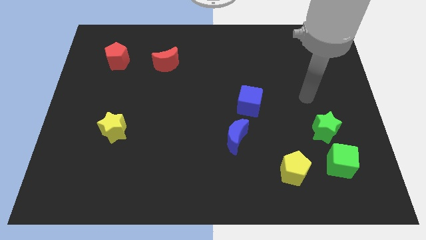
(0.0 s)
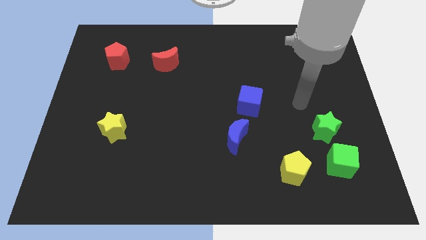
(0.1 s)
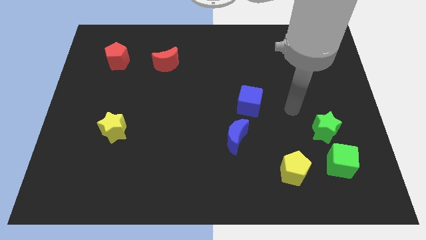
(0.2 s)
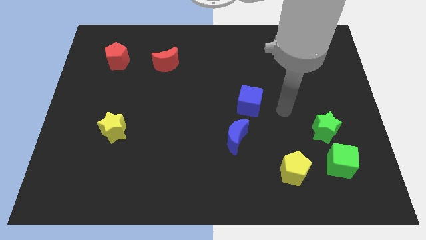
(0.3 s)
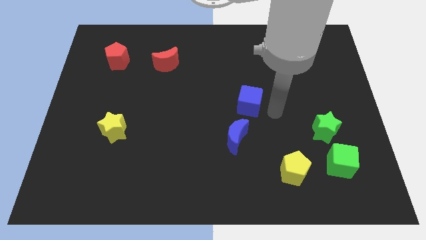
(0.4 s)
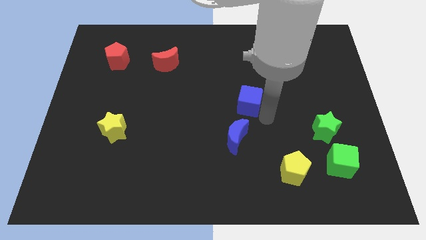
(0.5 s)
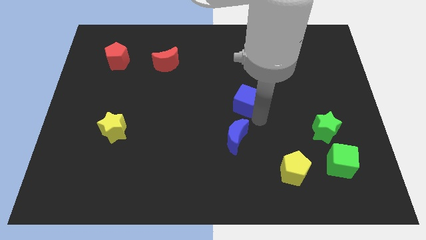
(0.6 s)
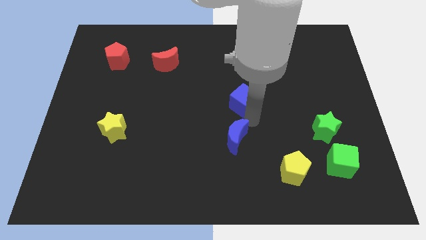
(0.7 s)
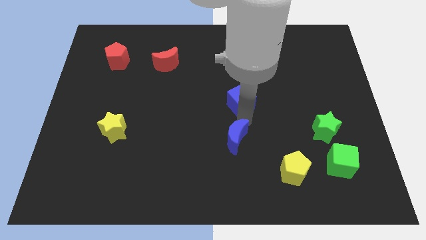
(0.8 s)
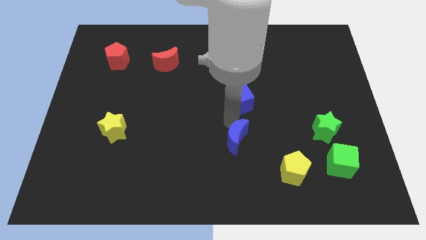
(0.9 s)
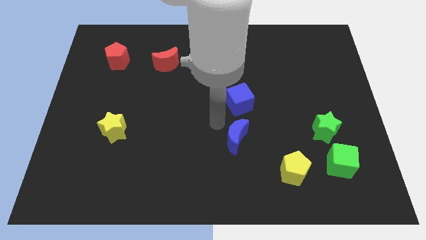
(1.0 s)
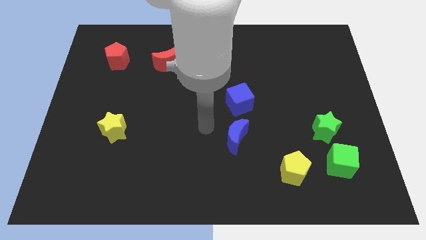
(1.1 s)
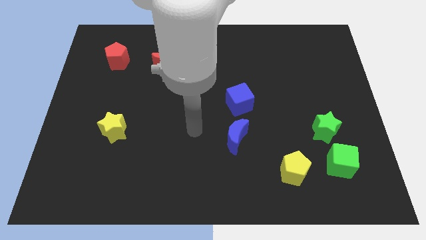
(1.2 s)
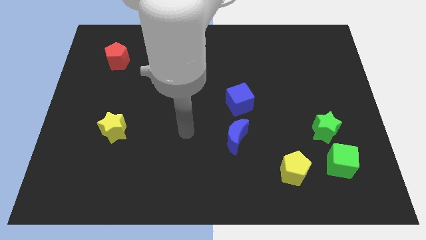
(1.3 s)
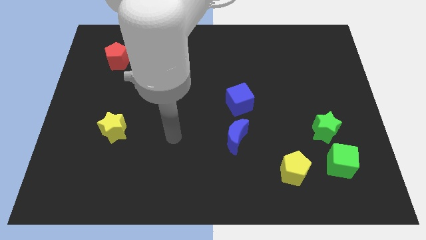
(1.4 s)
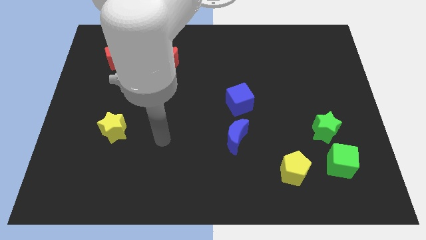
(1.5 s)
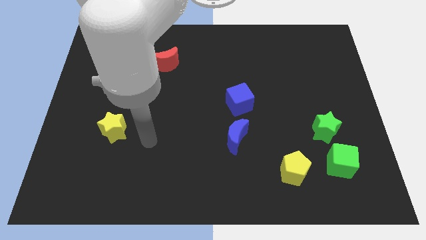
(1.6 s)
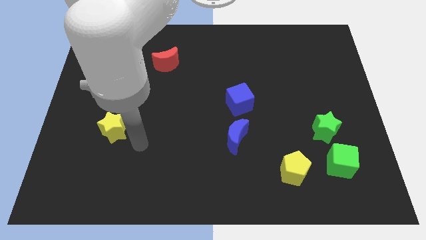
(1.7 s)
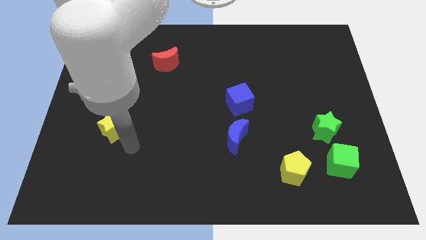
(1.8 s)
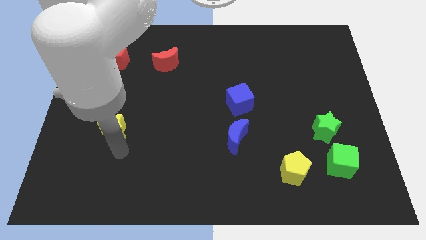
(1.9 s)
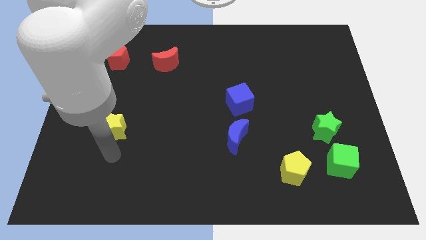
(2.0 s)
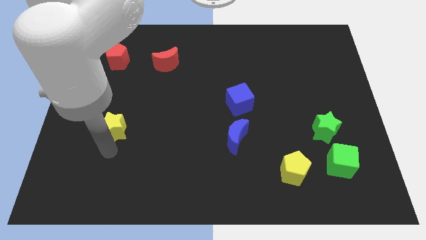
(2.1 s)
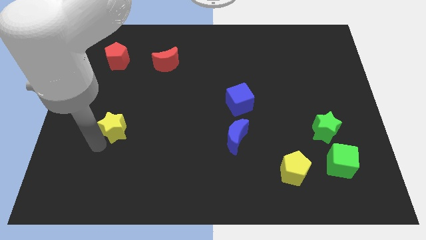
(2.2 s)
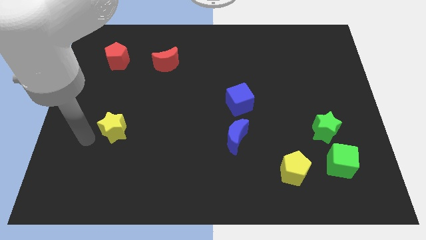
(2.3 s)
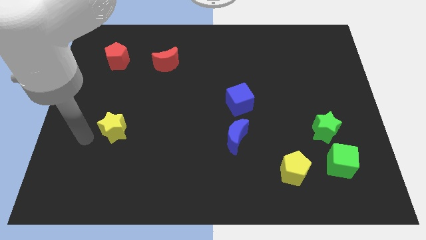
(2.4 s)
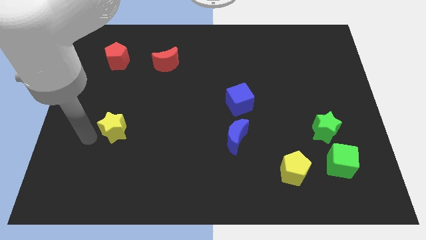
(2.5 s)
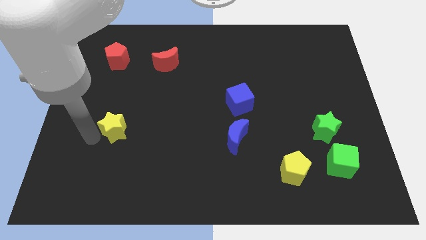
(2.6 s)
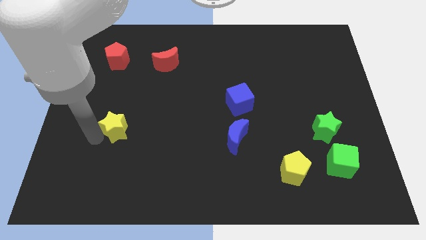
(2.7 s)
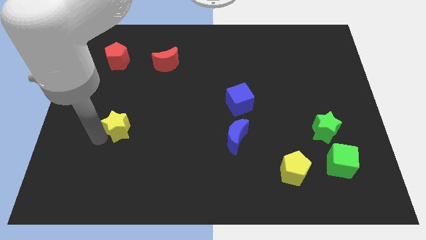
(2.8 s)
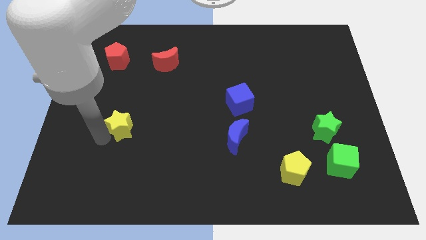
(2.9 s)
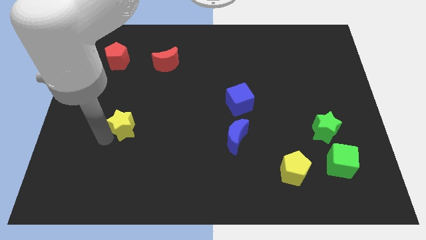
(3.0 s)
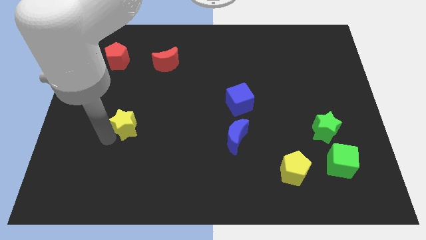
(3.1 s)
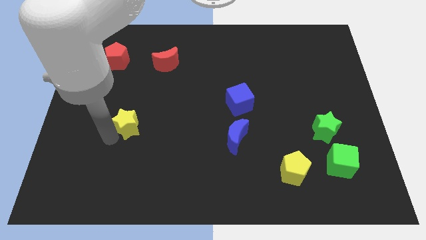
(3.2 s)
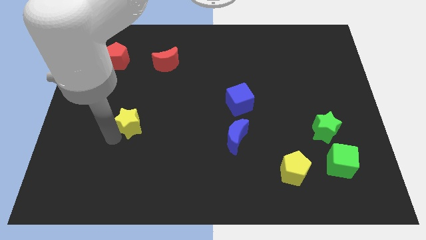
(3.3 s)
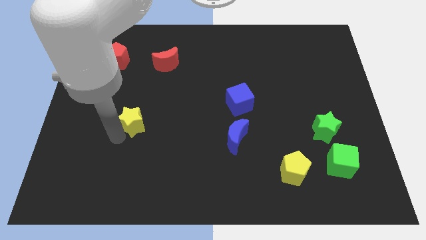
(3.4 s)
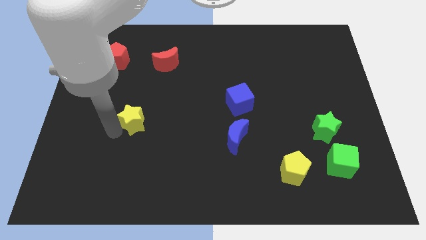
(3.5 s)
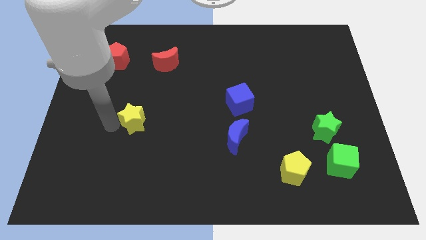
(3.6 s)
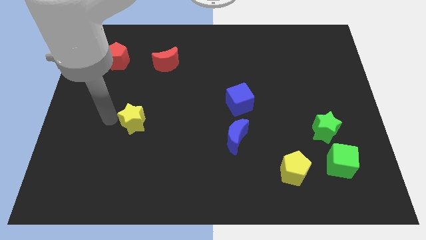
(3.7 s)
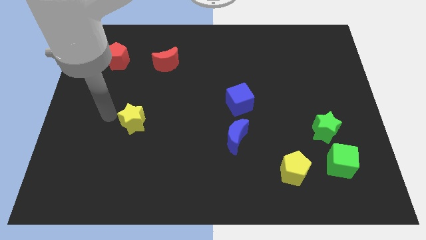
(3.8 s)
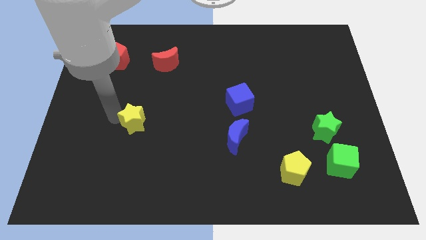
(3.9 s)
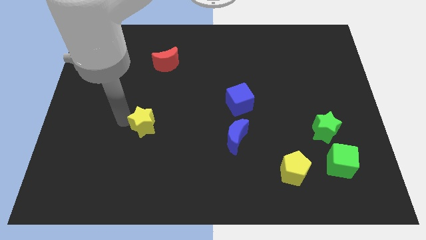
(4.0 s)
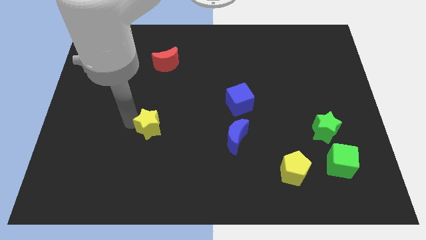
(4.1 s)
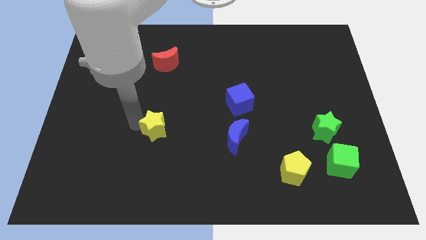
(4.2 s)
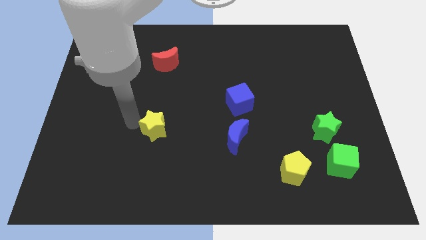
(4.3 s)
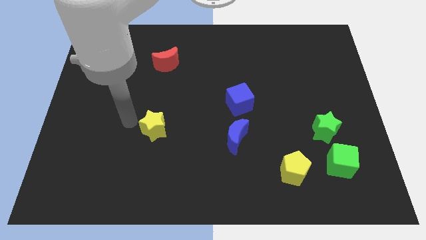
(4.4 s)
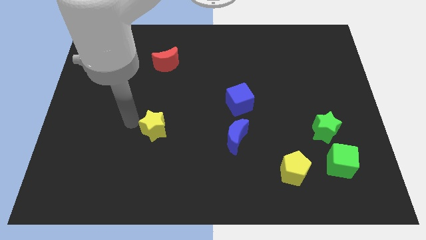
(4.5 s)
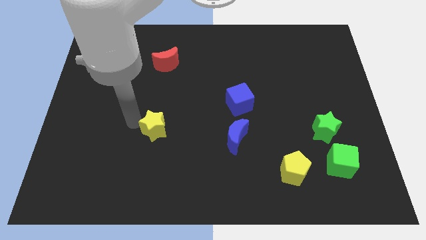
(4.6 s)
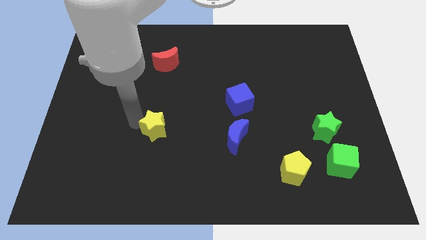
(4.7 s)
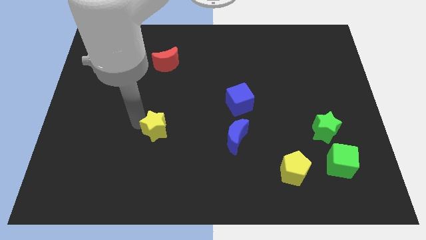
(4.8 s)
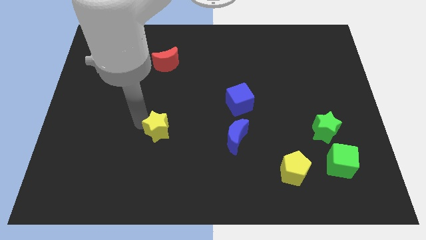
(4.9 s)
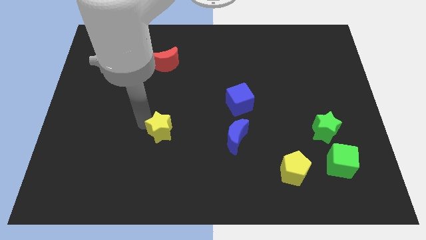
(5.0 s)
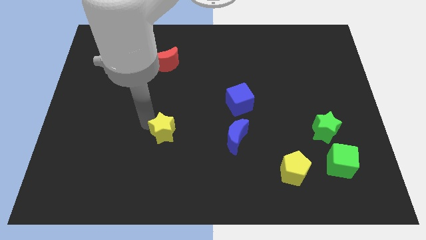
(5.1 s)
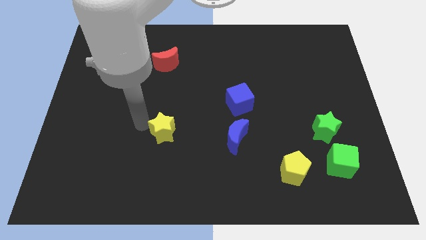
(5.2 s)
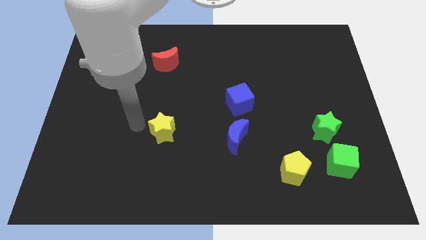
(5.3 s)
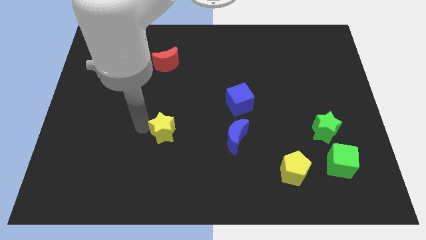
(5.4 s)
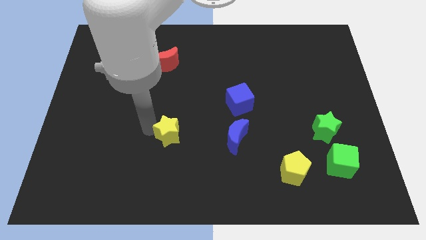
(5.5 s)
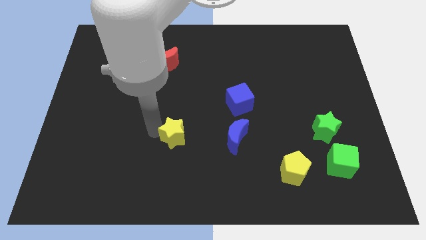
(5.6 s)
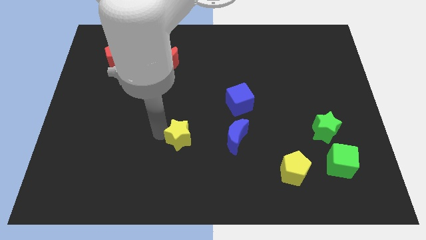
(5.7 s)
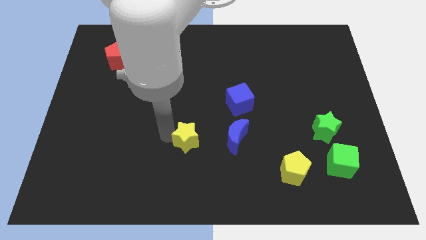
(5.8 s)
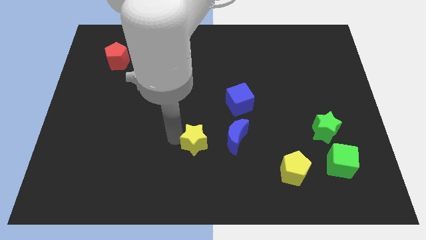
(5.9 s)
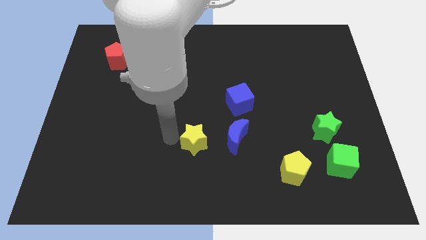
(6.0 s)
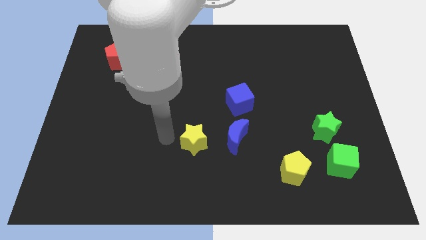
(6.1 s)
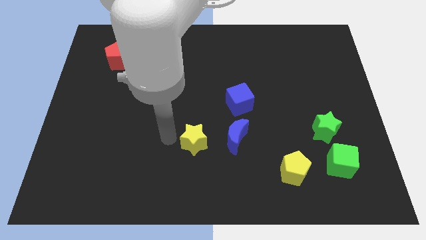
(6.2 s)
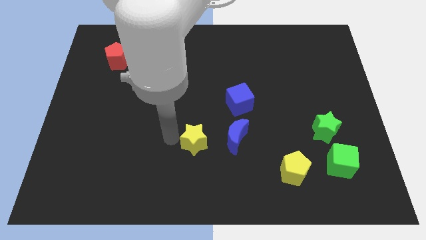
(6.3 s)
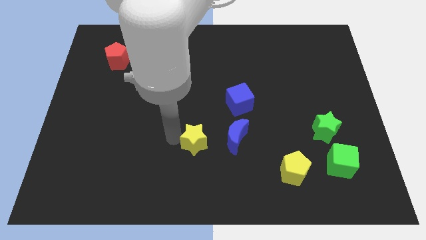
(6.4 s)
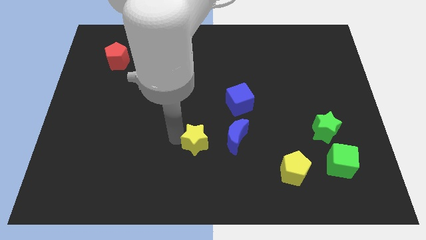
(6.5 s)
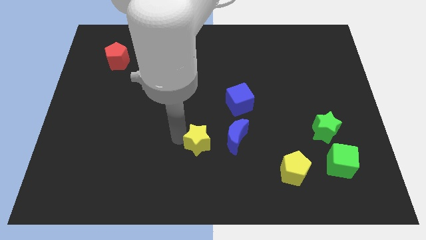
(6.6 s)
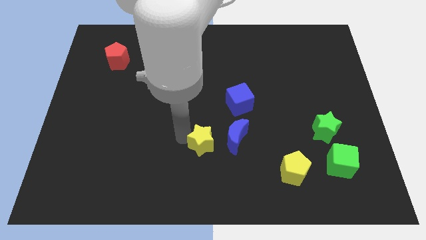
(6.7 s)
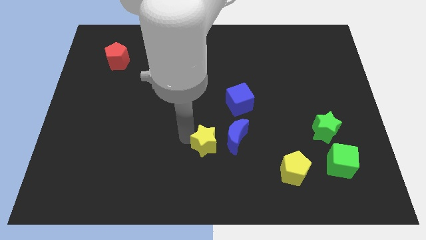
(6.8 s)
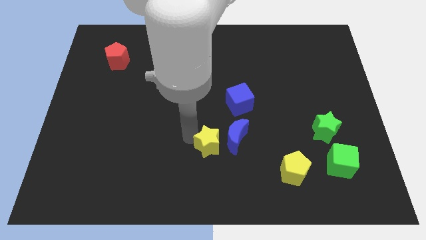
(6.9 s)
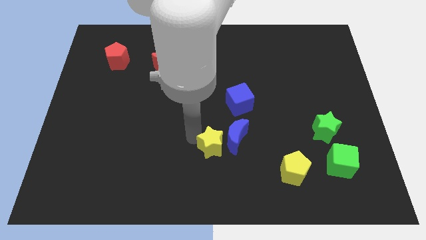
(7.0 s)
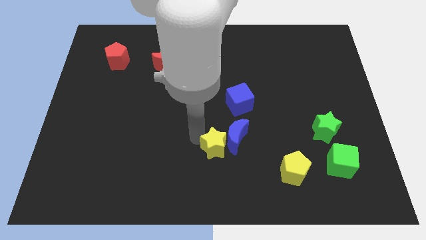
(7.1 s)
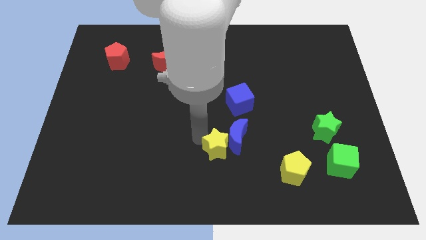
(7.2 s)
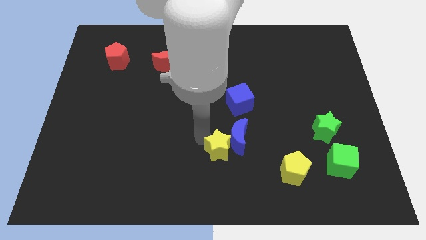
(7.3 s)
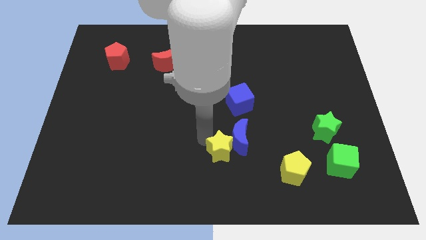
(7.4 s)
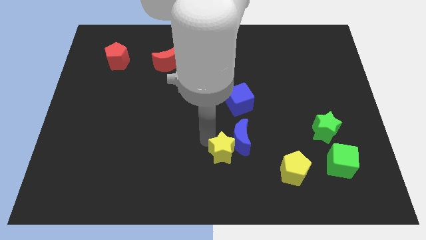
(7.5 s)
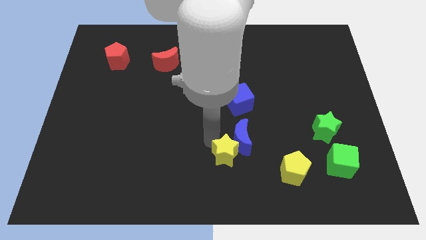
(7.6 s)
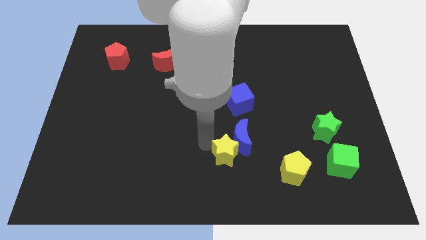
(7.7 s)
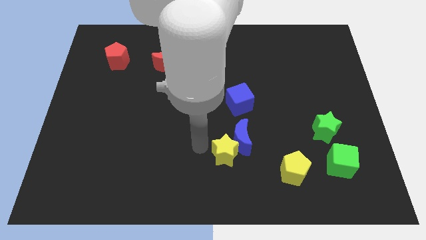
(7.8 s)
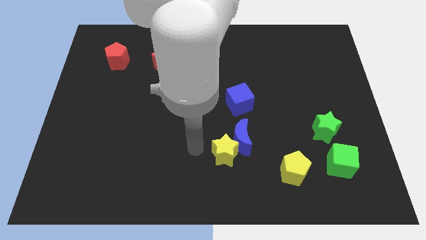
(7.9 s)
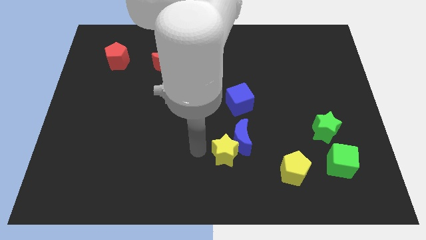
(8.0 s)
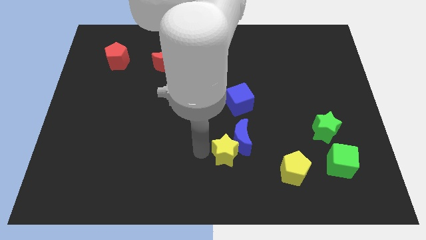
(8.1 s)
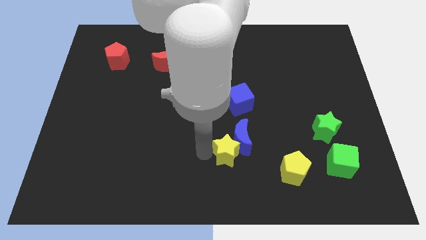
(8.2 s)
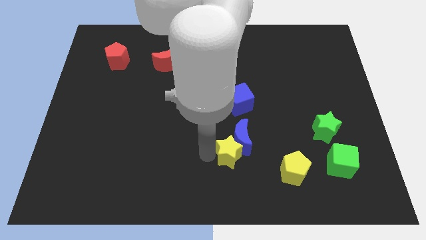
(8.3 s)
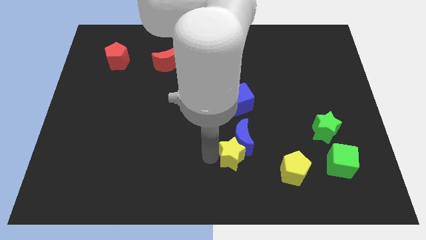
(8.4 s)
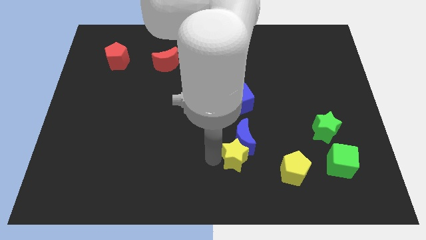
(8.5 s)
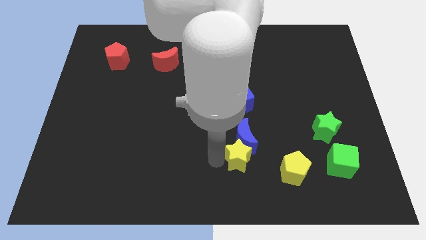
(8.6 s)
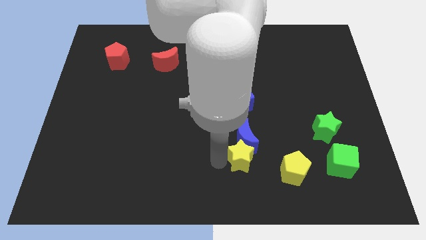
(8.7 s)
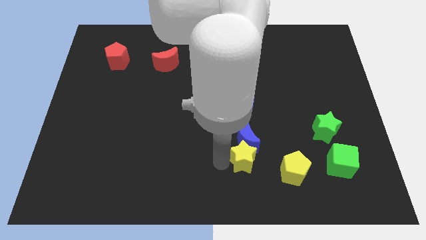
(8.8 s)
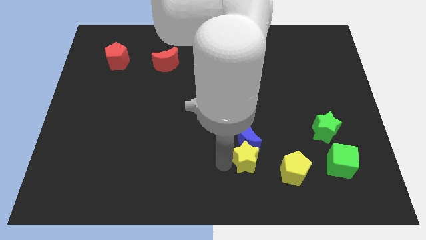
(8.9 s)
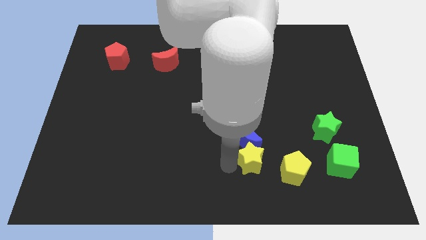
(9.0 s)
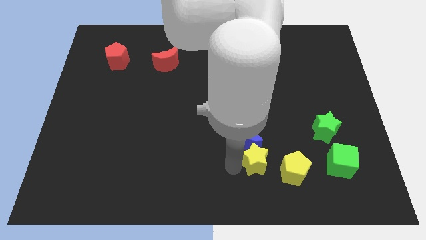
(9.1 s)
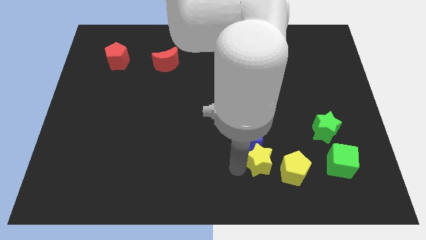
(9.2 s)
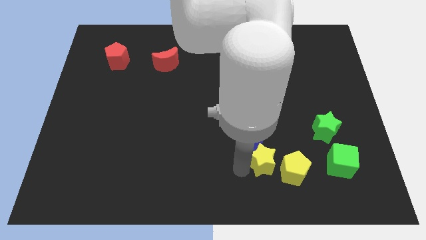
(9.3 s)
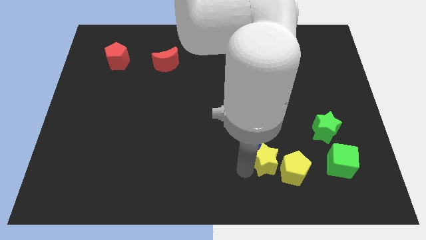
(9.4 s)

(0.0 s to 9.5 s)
slide the yellow star towards the yellow pentagon
